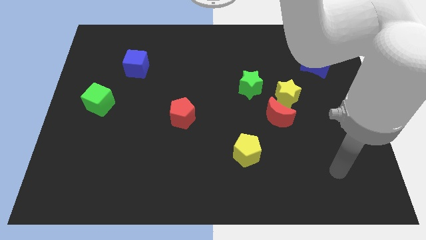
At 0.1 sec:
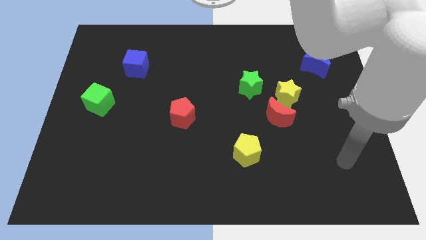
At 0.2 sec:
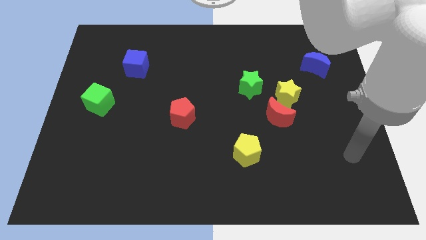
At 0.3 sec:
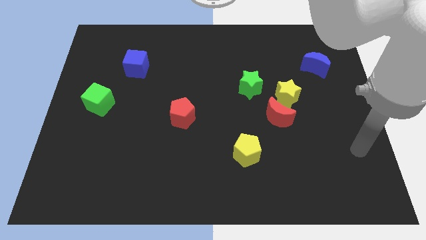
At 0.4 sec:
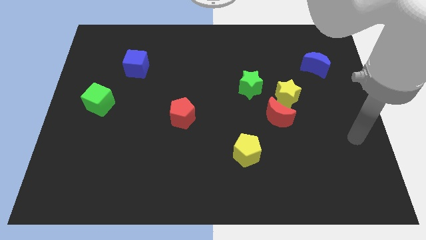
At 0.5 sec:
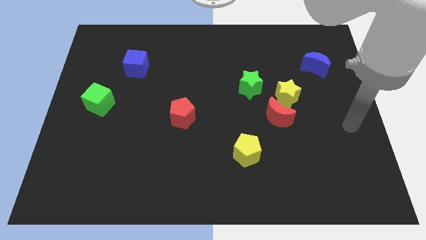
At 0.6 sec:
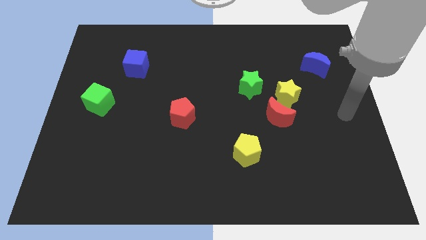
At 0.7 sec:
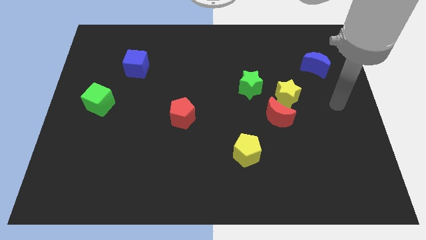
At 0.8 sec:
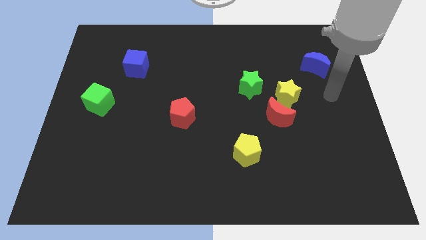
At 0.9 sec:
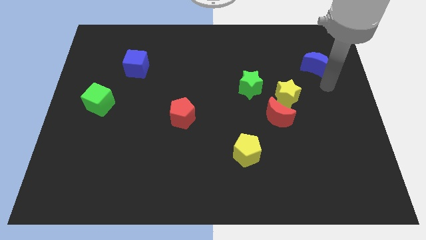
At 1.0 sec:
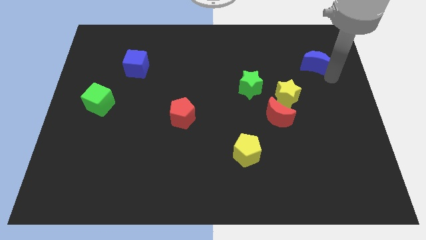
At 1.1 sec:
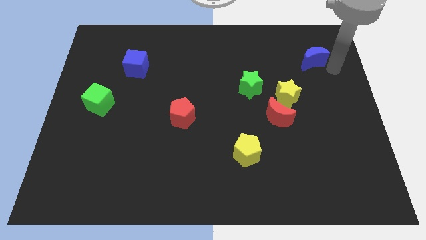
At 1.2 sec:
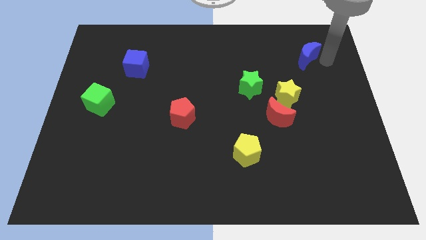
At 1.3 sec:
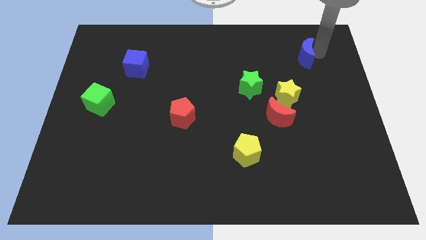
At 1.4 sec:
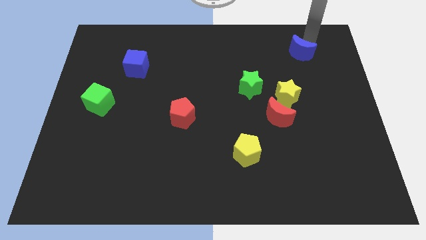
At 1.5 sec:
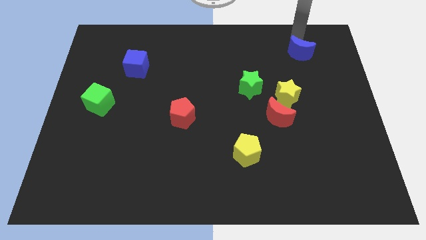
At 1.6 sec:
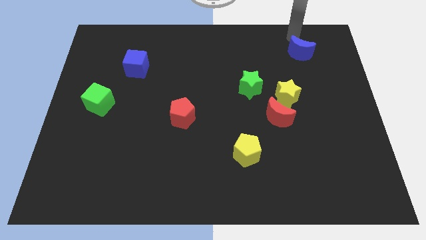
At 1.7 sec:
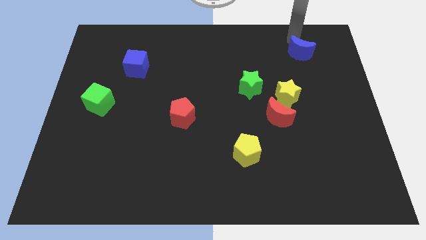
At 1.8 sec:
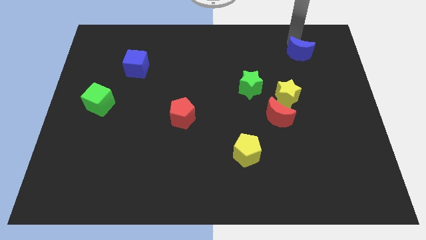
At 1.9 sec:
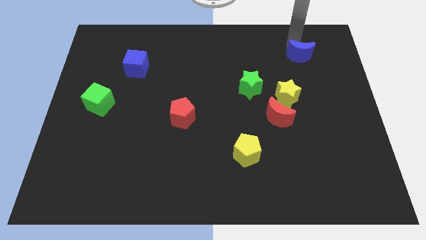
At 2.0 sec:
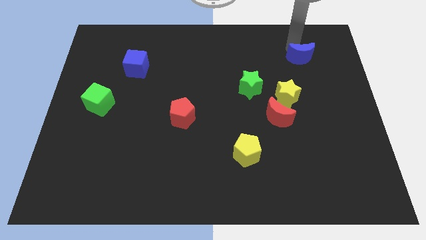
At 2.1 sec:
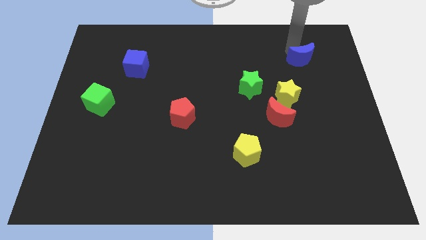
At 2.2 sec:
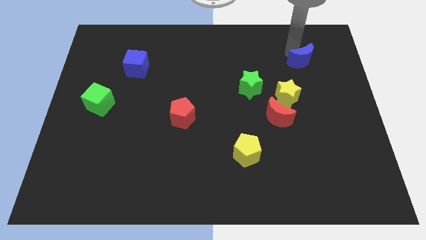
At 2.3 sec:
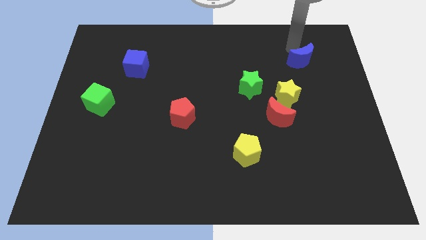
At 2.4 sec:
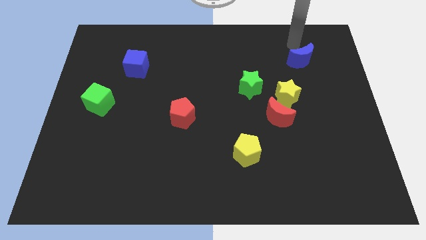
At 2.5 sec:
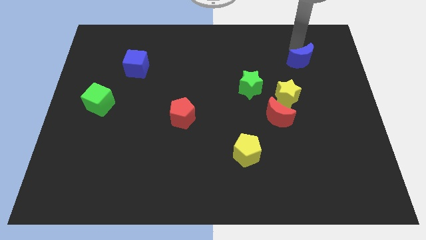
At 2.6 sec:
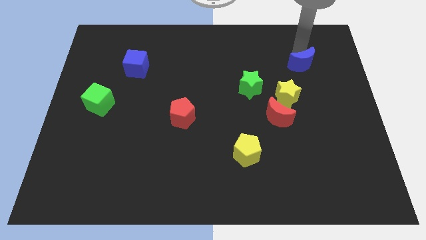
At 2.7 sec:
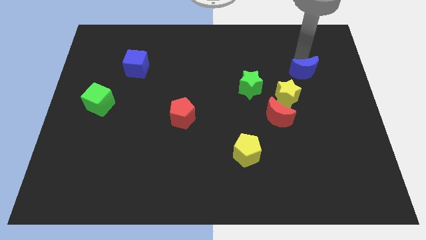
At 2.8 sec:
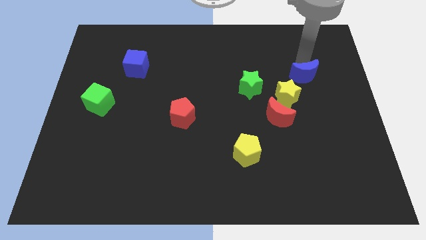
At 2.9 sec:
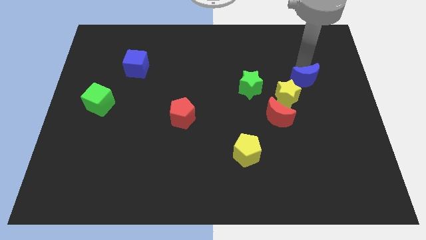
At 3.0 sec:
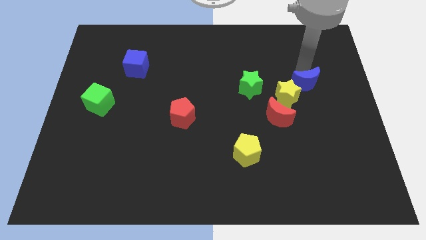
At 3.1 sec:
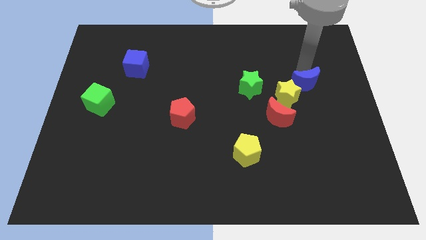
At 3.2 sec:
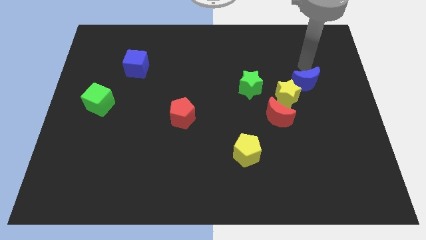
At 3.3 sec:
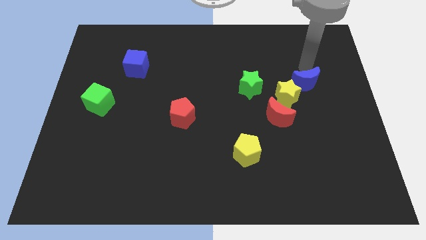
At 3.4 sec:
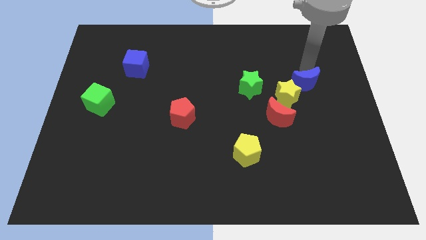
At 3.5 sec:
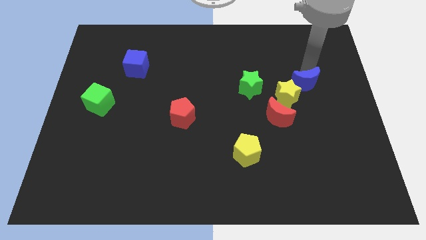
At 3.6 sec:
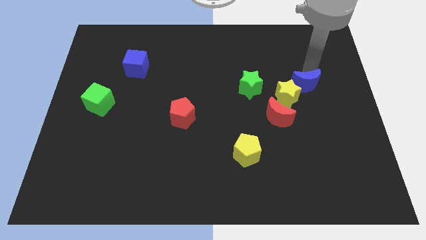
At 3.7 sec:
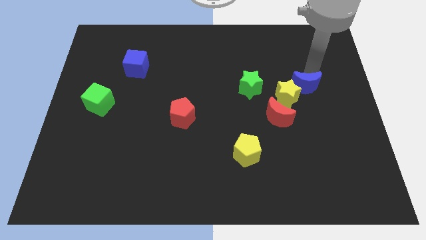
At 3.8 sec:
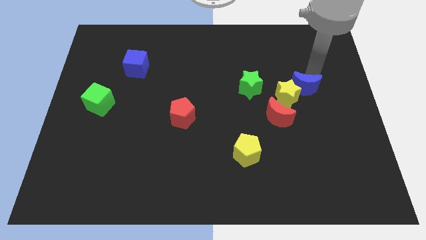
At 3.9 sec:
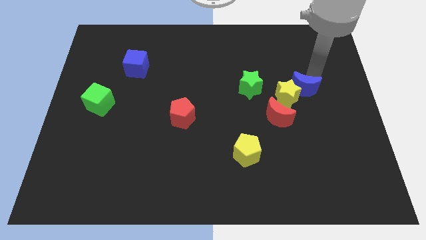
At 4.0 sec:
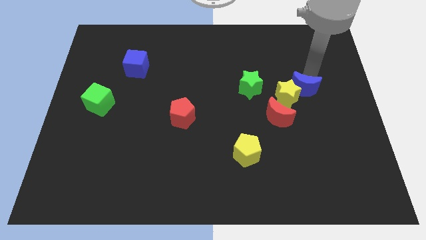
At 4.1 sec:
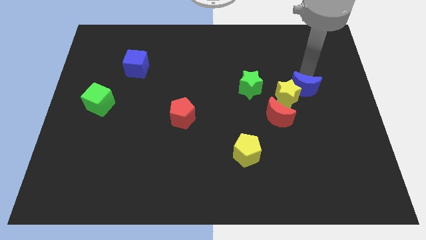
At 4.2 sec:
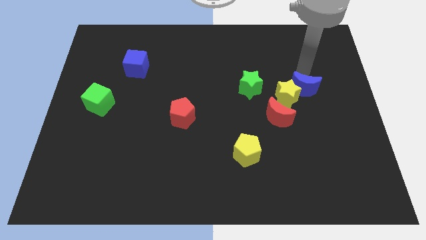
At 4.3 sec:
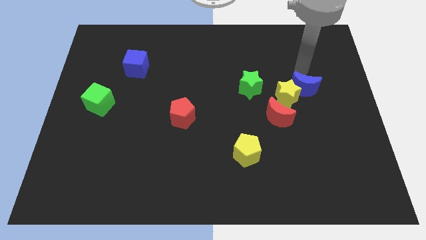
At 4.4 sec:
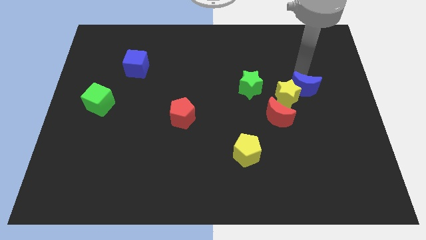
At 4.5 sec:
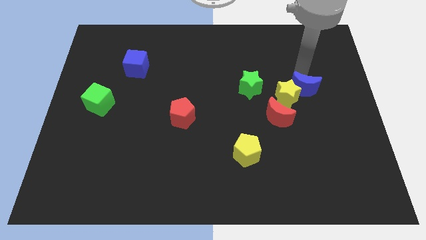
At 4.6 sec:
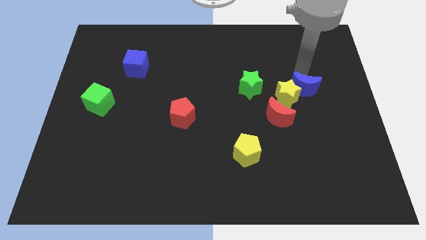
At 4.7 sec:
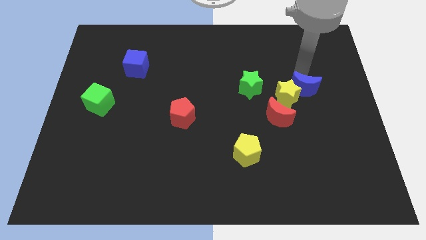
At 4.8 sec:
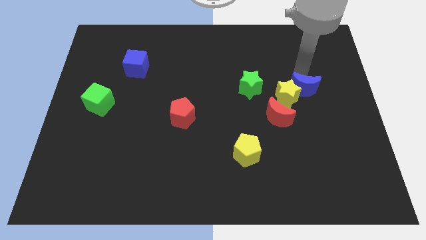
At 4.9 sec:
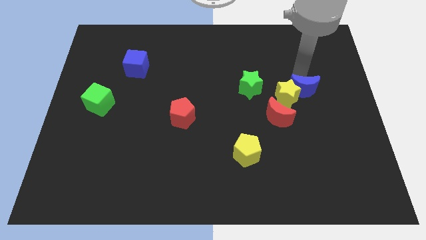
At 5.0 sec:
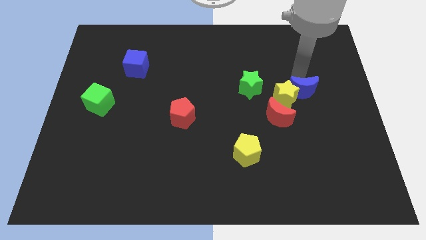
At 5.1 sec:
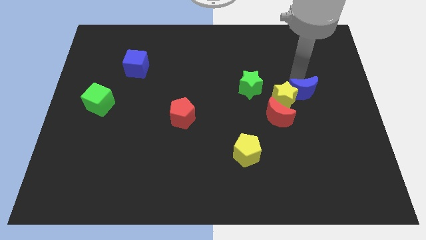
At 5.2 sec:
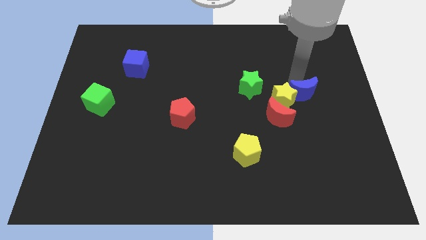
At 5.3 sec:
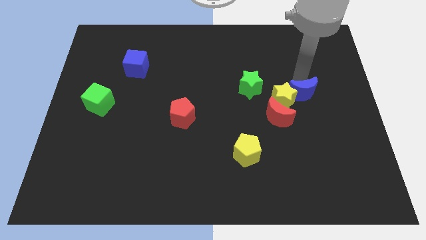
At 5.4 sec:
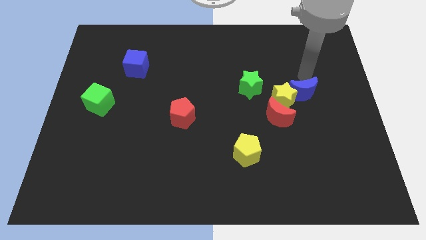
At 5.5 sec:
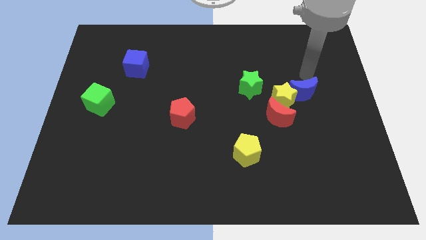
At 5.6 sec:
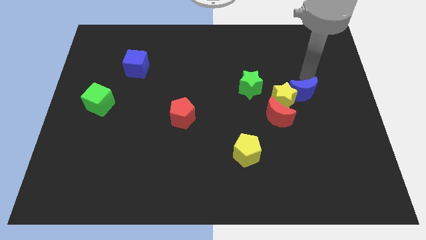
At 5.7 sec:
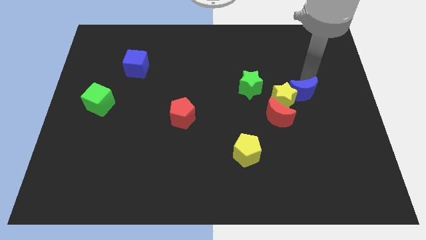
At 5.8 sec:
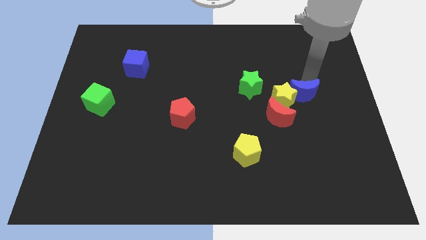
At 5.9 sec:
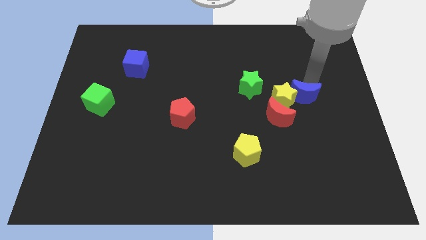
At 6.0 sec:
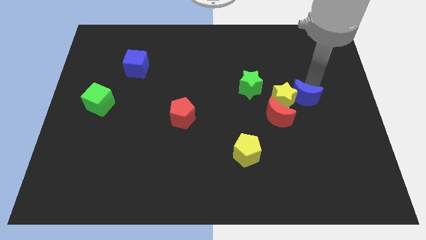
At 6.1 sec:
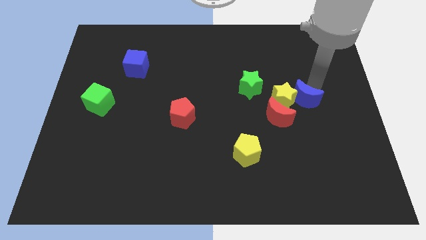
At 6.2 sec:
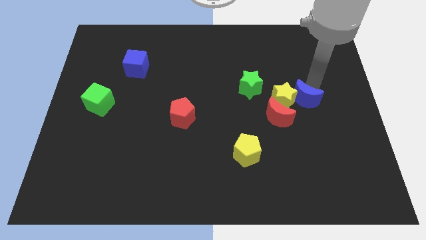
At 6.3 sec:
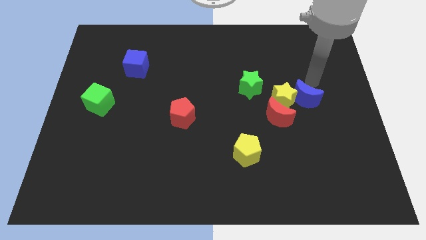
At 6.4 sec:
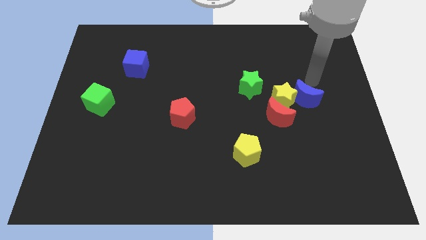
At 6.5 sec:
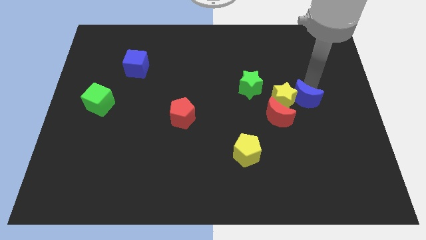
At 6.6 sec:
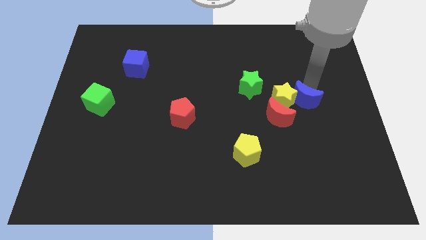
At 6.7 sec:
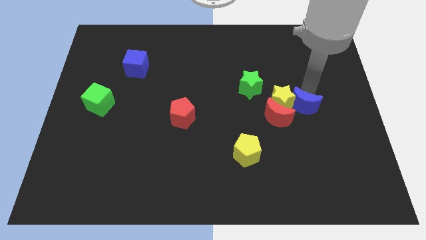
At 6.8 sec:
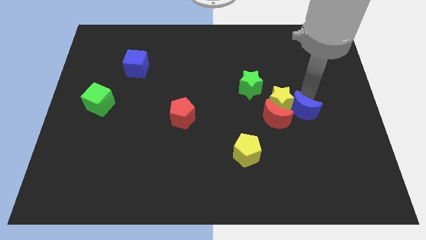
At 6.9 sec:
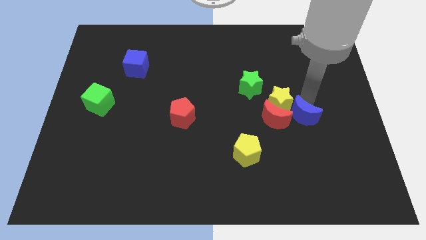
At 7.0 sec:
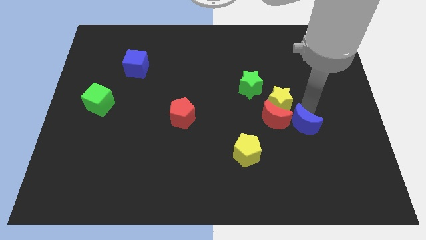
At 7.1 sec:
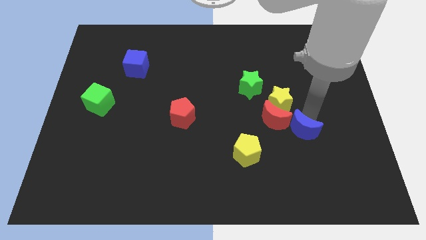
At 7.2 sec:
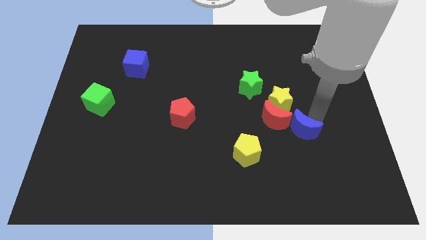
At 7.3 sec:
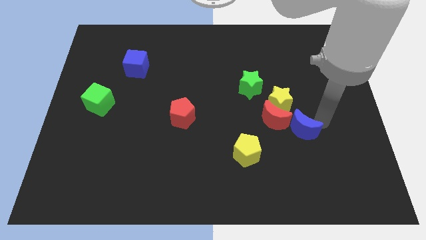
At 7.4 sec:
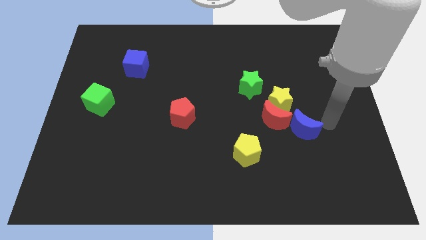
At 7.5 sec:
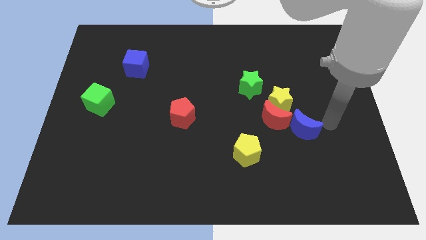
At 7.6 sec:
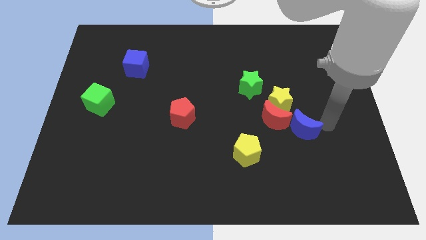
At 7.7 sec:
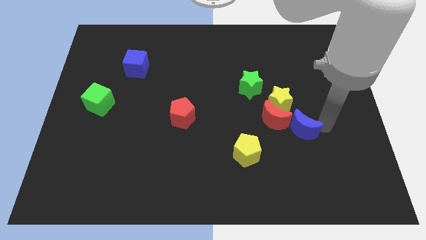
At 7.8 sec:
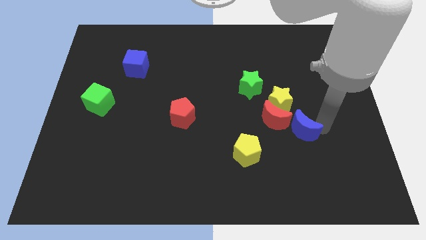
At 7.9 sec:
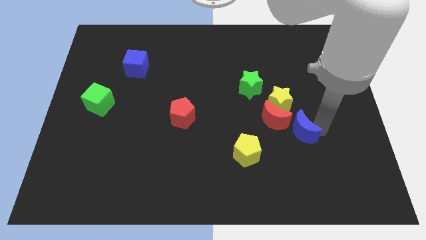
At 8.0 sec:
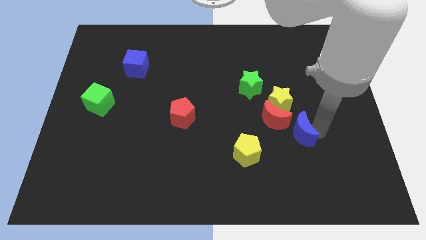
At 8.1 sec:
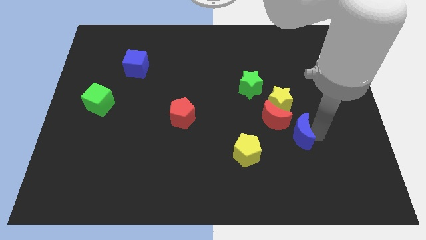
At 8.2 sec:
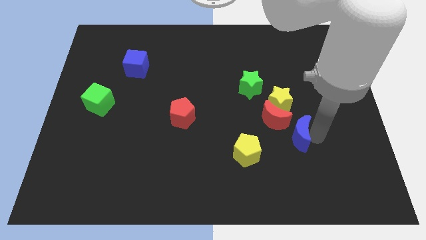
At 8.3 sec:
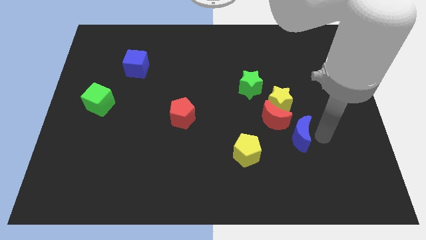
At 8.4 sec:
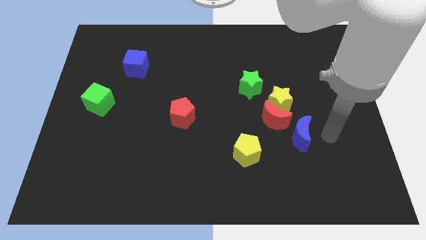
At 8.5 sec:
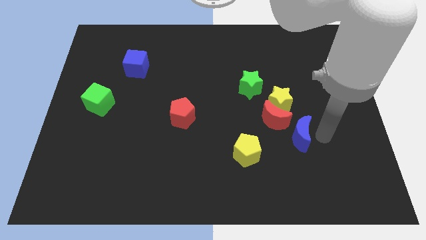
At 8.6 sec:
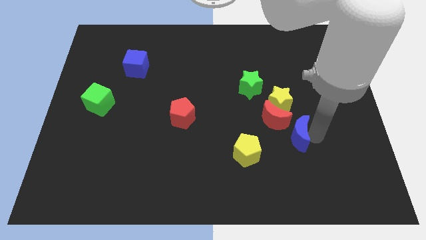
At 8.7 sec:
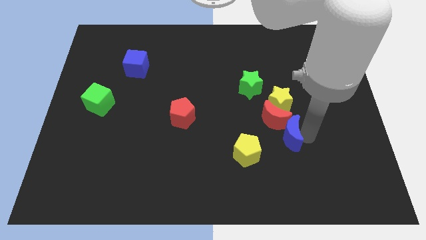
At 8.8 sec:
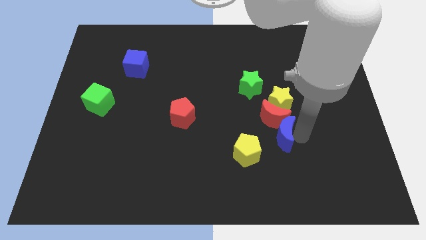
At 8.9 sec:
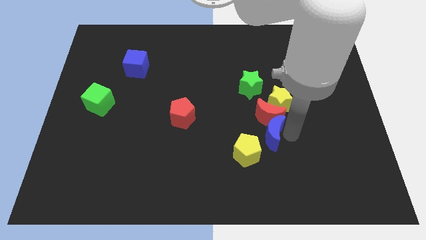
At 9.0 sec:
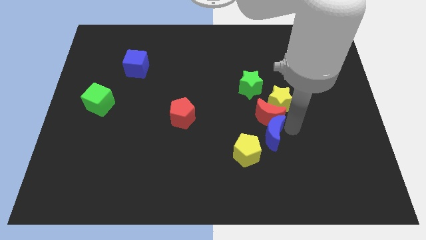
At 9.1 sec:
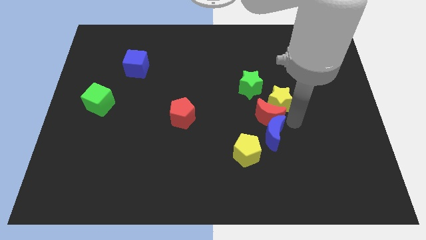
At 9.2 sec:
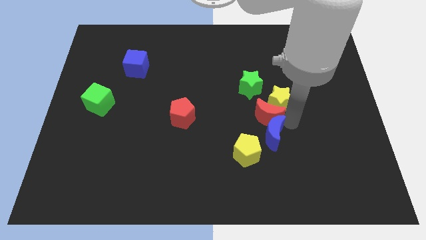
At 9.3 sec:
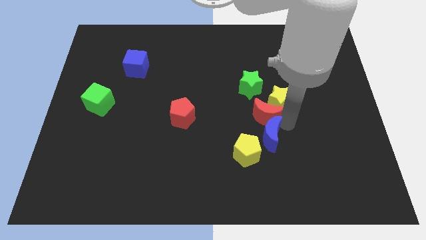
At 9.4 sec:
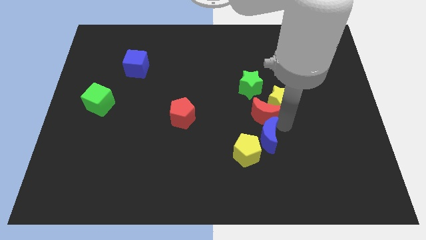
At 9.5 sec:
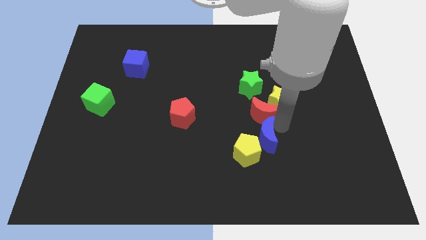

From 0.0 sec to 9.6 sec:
move the blue moon next to the yellow pentagon
